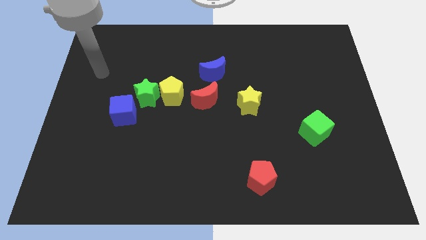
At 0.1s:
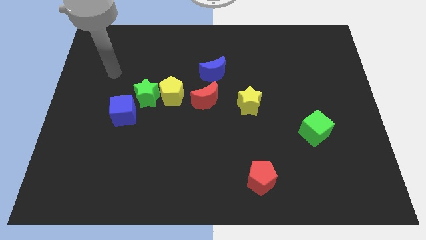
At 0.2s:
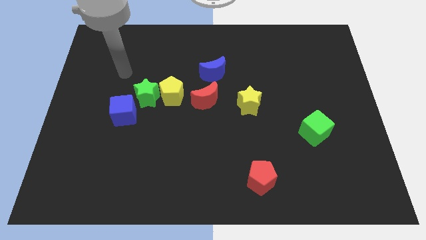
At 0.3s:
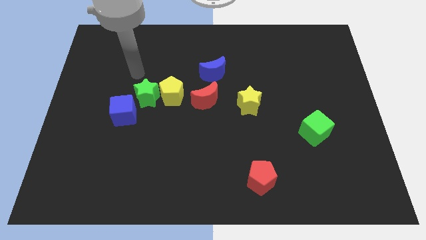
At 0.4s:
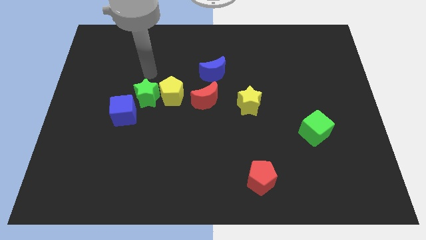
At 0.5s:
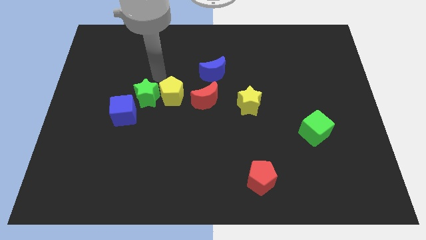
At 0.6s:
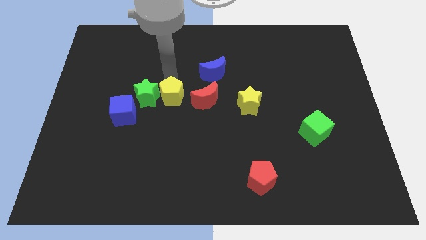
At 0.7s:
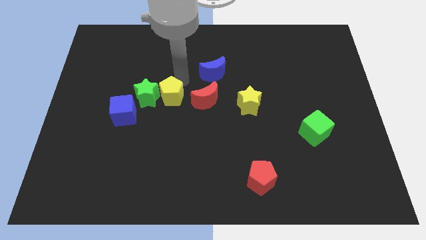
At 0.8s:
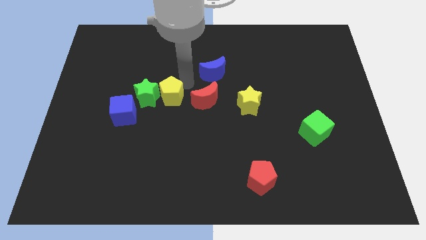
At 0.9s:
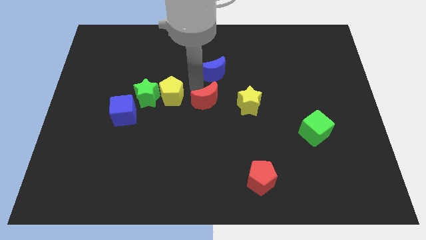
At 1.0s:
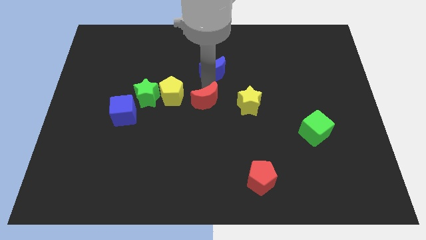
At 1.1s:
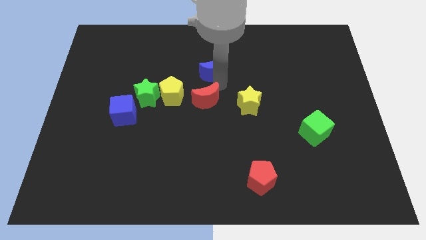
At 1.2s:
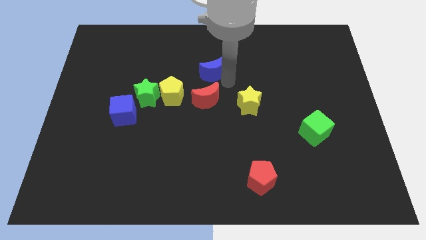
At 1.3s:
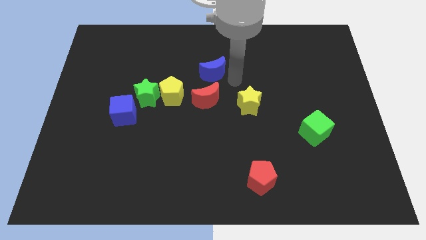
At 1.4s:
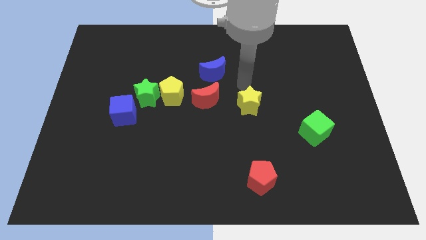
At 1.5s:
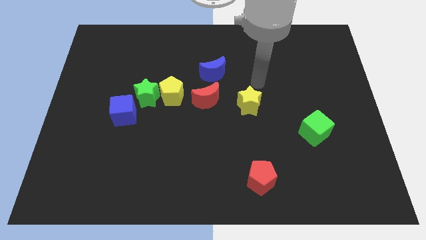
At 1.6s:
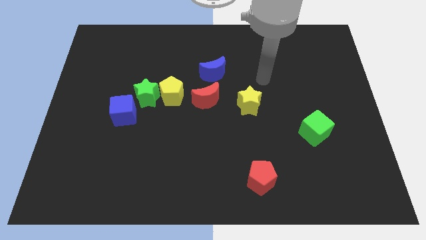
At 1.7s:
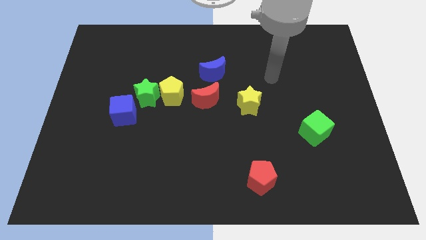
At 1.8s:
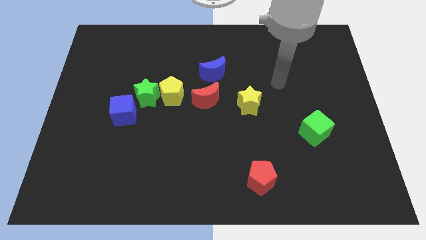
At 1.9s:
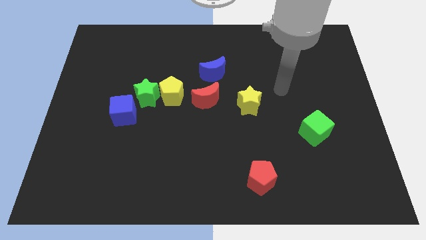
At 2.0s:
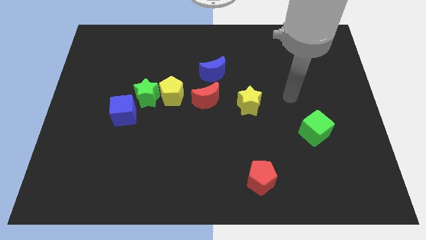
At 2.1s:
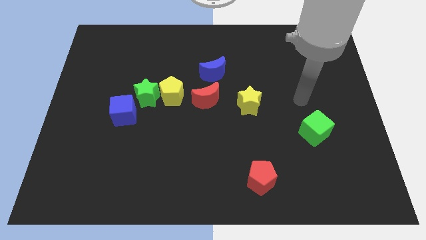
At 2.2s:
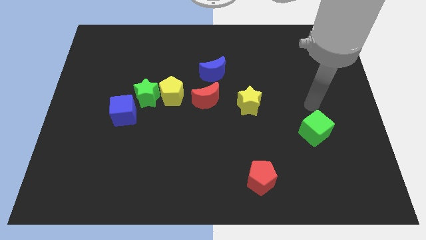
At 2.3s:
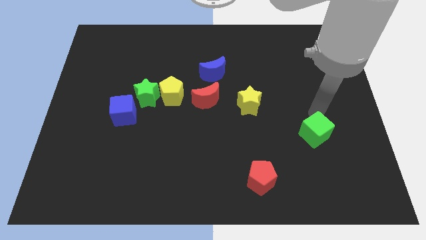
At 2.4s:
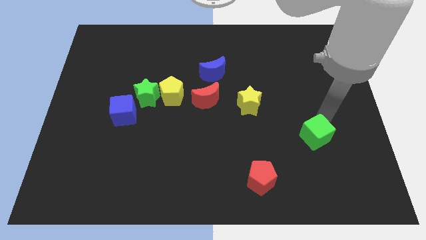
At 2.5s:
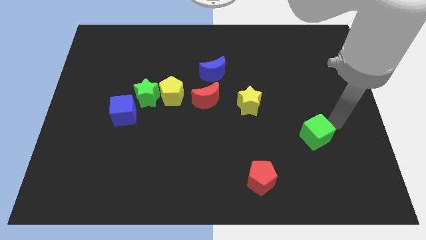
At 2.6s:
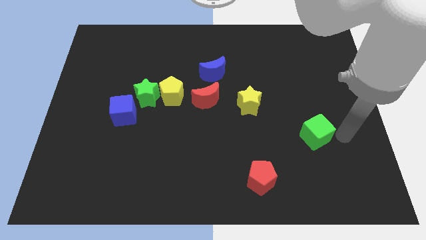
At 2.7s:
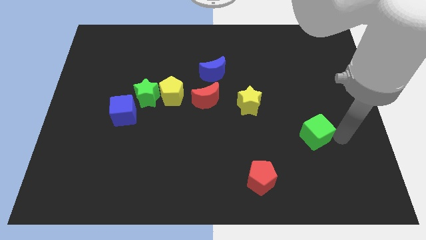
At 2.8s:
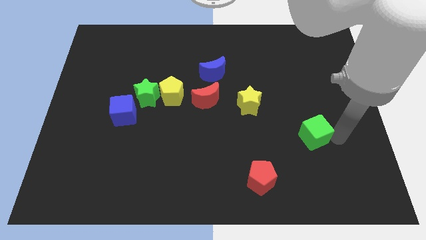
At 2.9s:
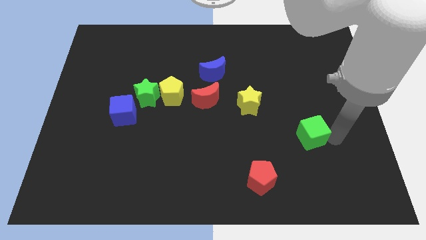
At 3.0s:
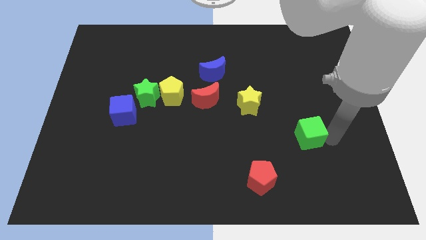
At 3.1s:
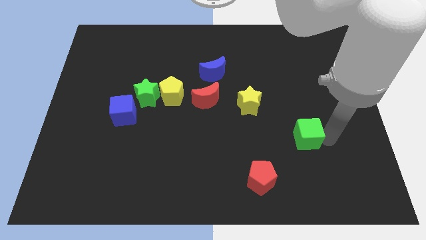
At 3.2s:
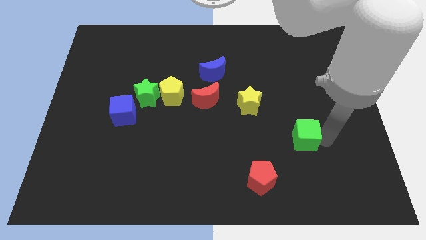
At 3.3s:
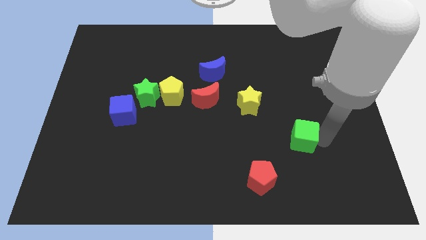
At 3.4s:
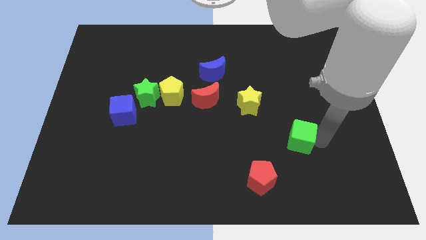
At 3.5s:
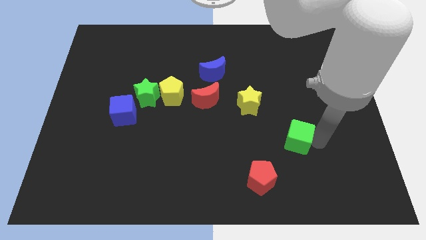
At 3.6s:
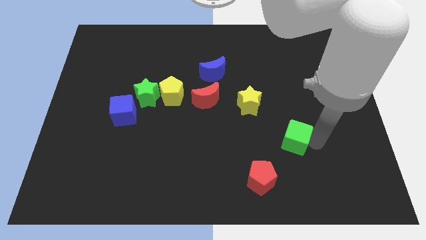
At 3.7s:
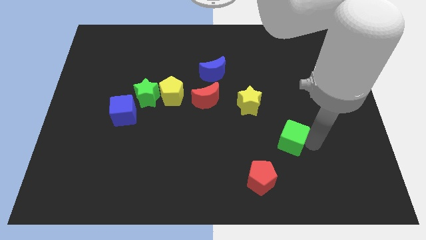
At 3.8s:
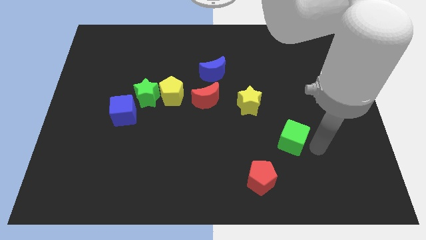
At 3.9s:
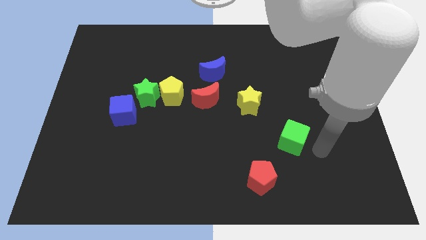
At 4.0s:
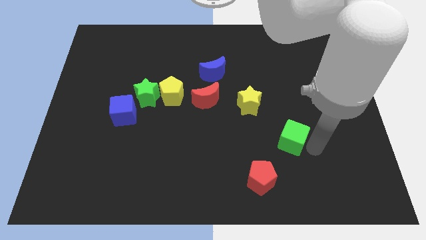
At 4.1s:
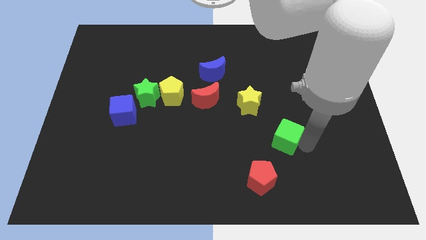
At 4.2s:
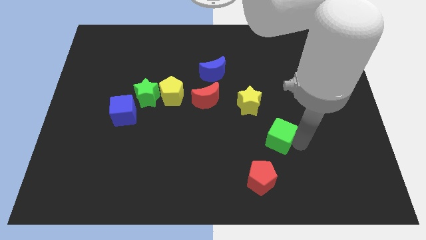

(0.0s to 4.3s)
move the green cube a bit left

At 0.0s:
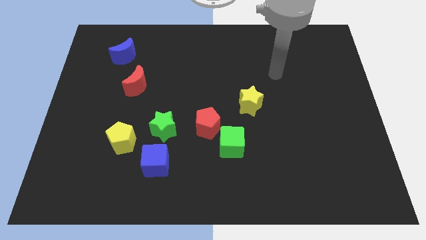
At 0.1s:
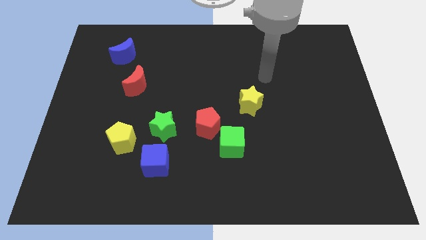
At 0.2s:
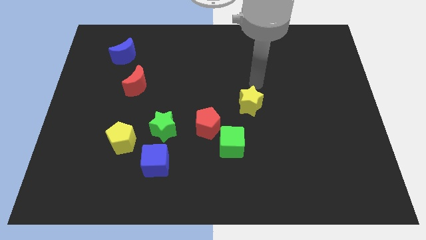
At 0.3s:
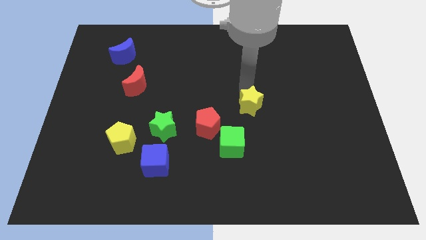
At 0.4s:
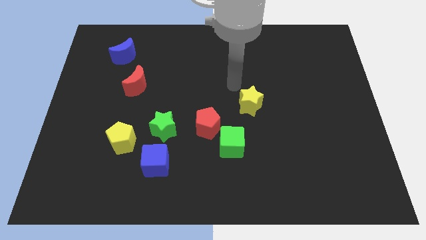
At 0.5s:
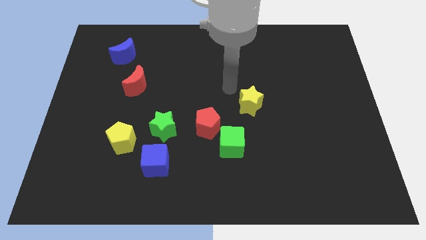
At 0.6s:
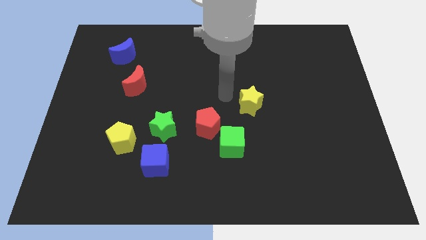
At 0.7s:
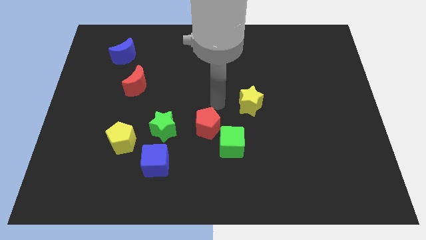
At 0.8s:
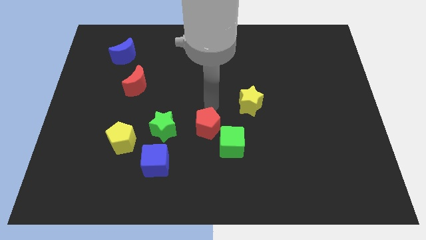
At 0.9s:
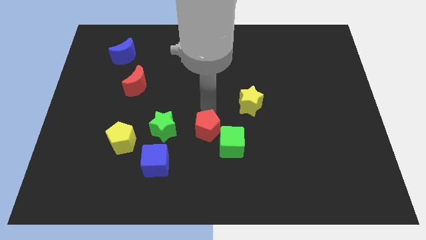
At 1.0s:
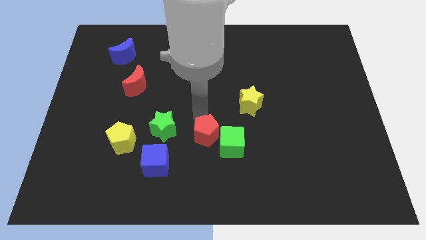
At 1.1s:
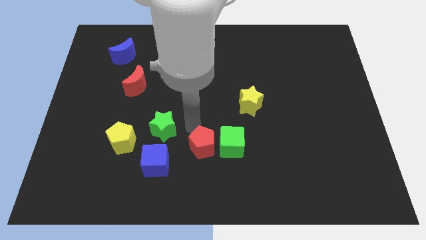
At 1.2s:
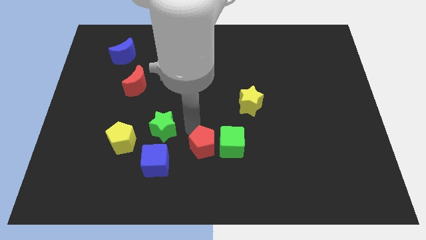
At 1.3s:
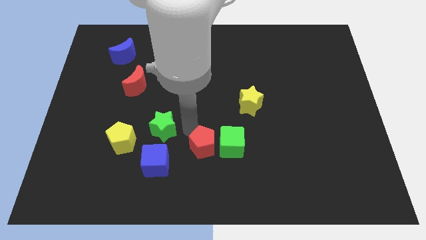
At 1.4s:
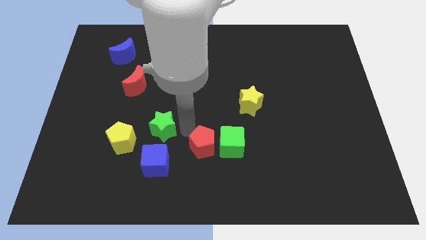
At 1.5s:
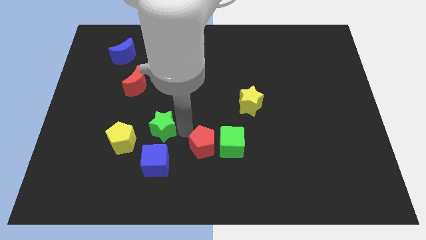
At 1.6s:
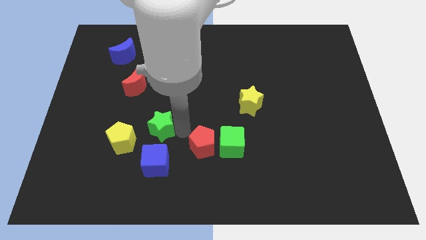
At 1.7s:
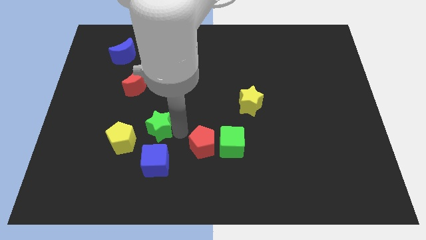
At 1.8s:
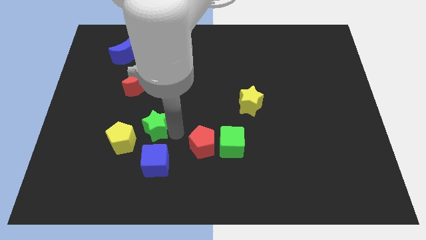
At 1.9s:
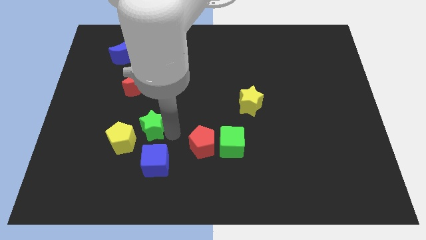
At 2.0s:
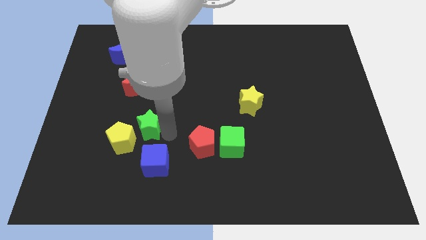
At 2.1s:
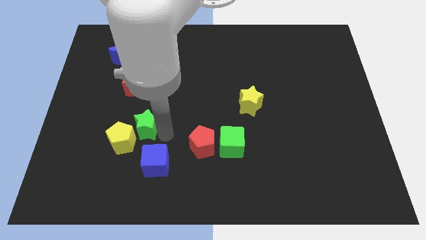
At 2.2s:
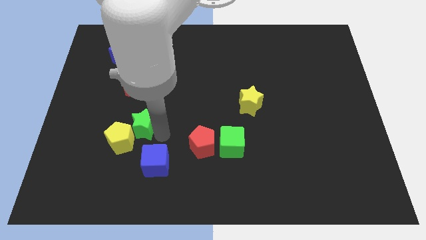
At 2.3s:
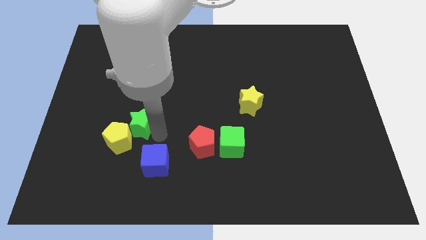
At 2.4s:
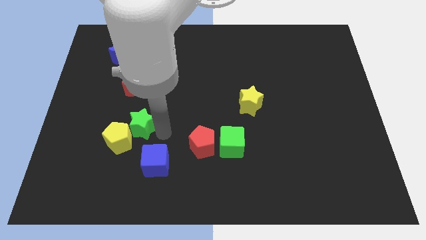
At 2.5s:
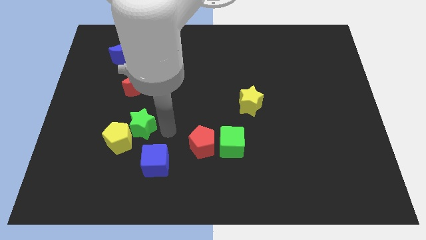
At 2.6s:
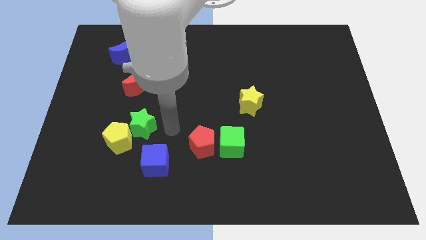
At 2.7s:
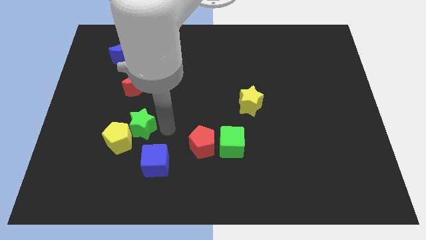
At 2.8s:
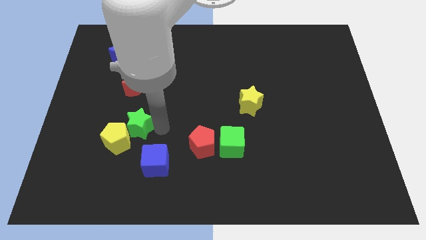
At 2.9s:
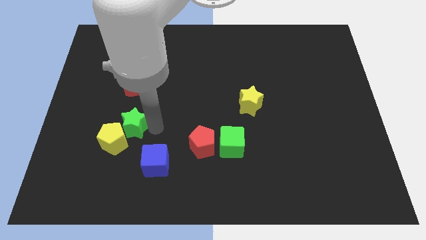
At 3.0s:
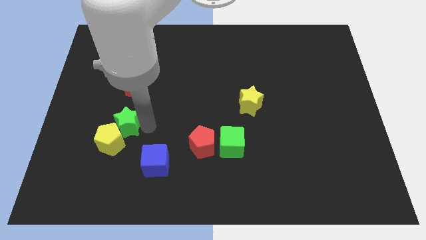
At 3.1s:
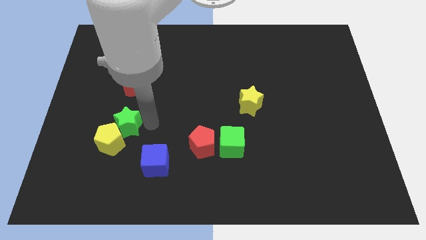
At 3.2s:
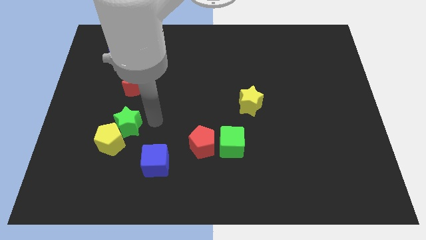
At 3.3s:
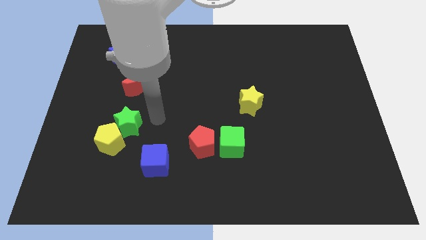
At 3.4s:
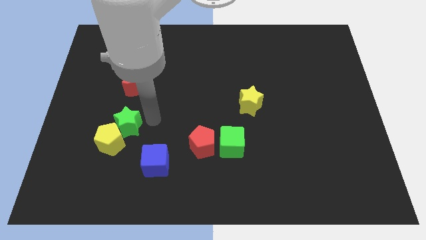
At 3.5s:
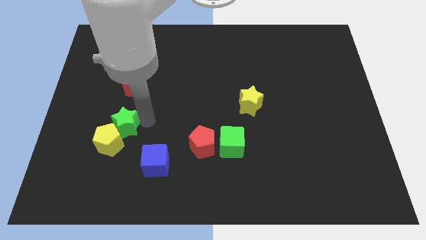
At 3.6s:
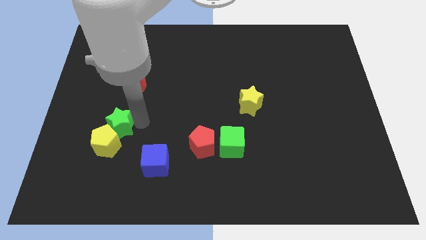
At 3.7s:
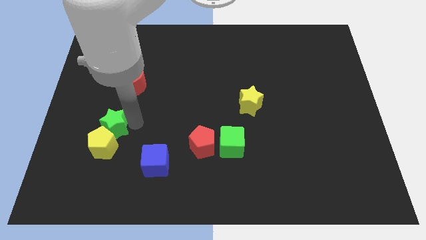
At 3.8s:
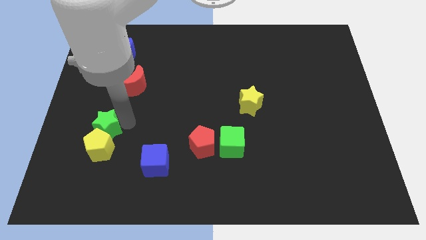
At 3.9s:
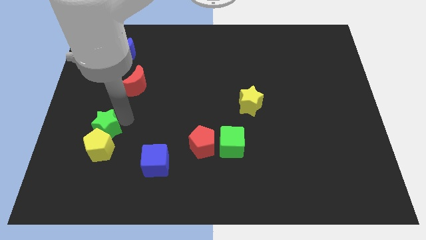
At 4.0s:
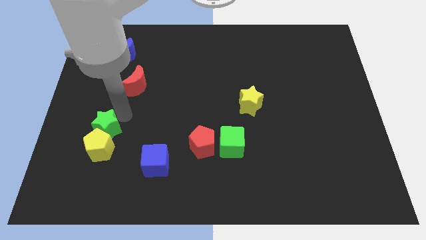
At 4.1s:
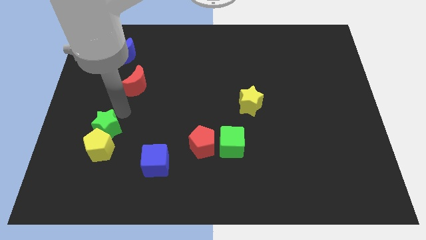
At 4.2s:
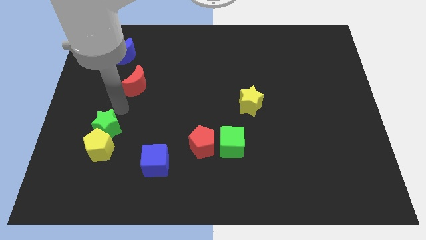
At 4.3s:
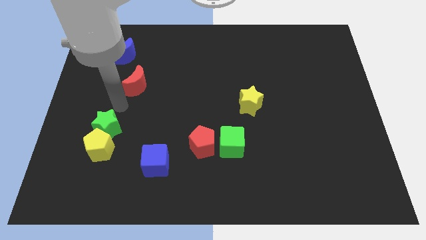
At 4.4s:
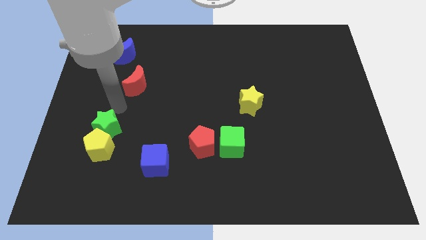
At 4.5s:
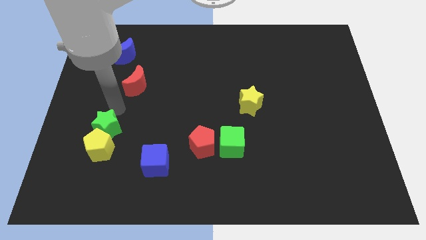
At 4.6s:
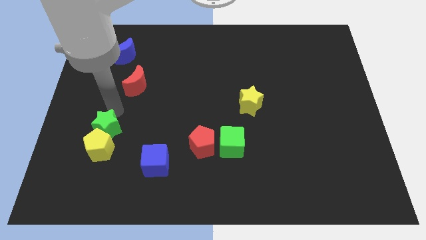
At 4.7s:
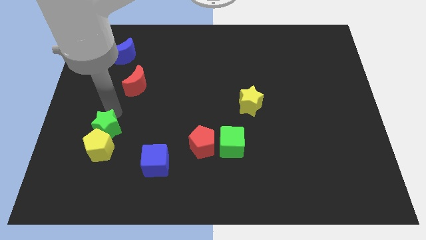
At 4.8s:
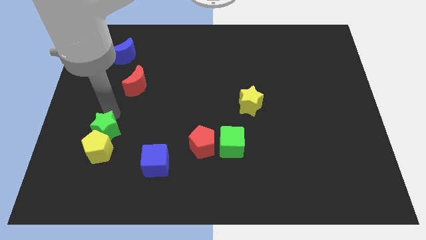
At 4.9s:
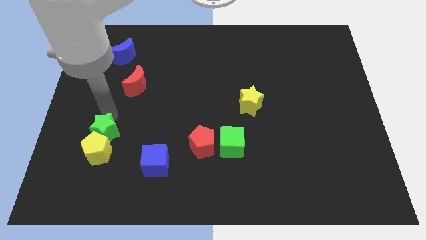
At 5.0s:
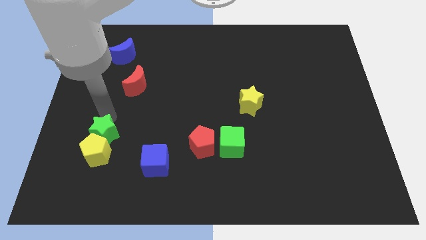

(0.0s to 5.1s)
slightly move the green star down and left diagonally
